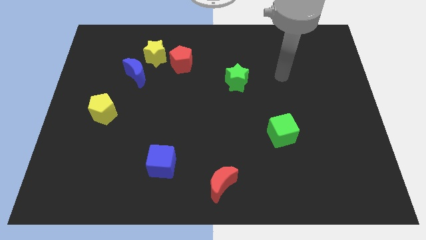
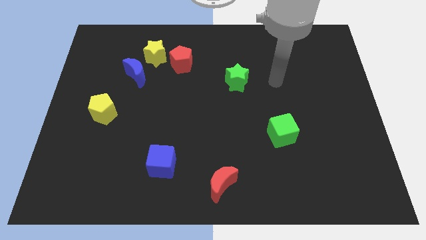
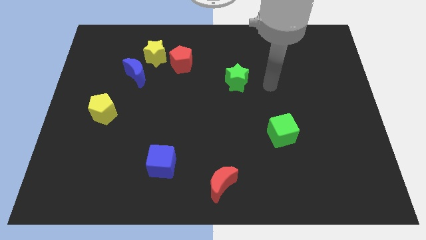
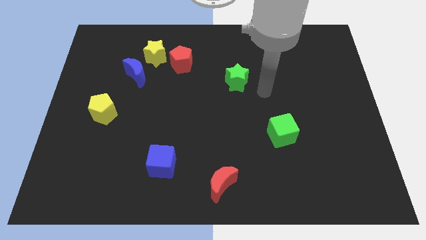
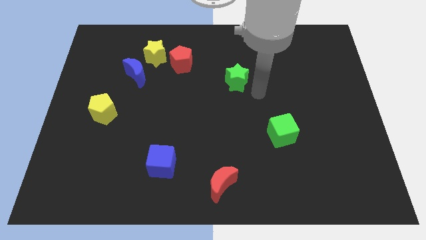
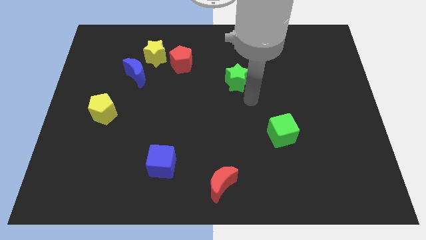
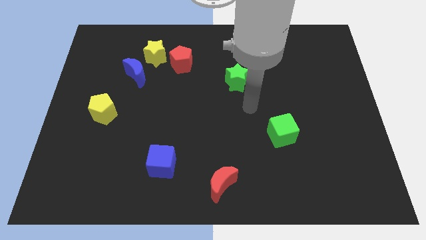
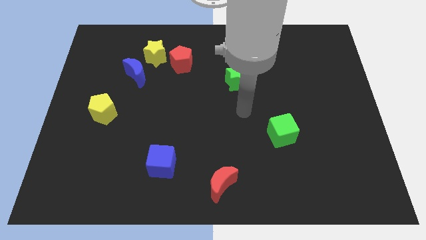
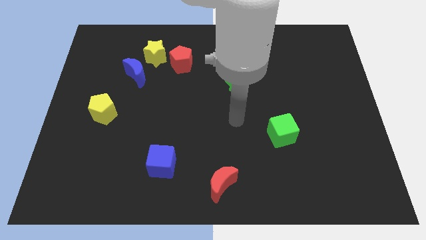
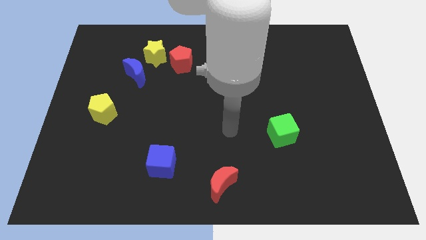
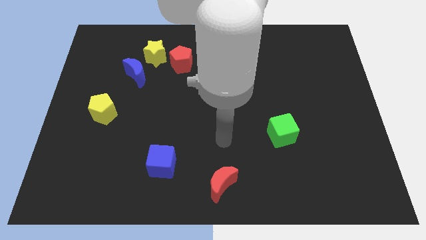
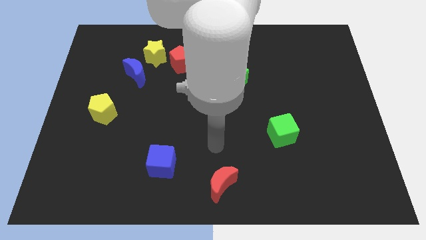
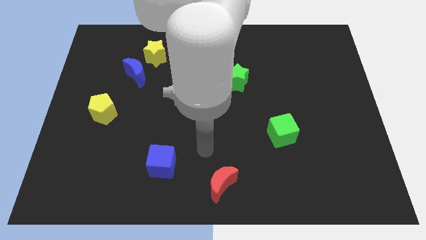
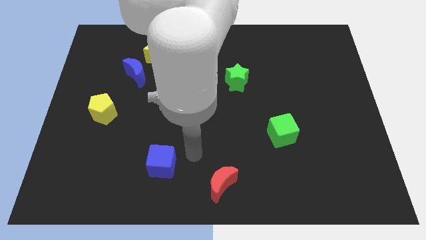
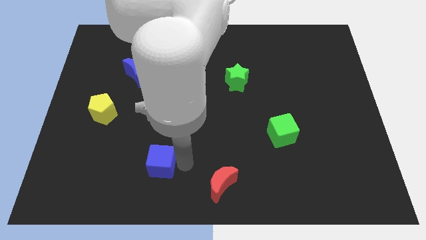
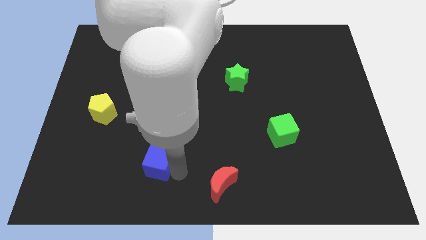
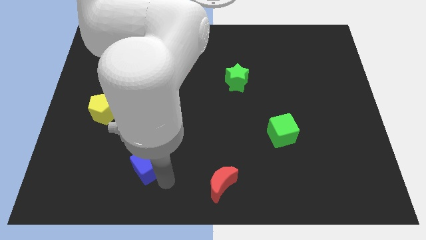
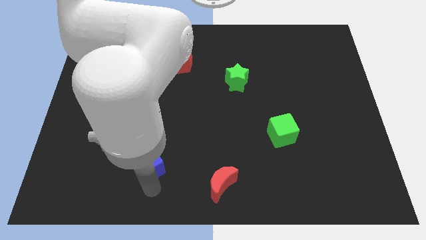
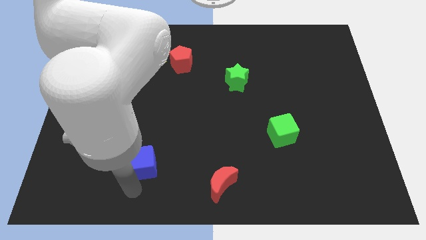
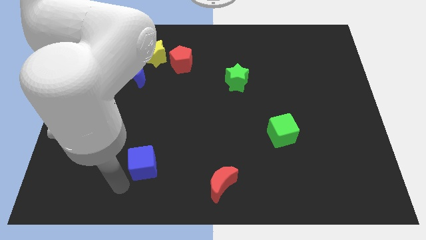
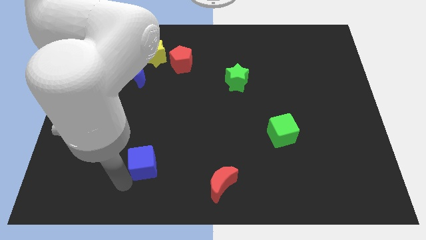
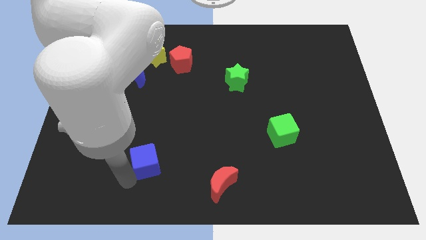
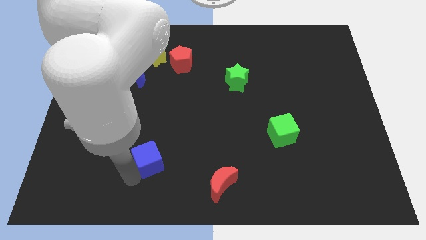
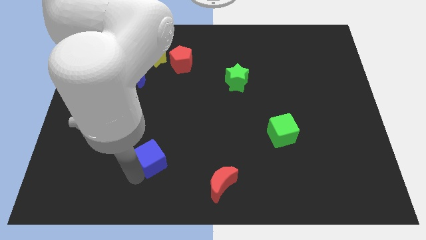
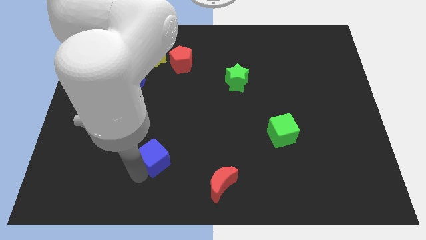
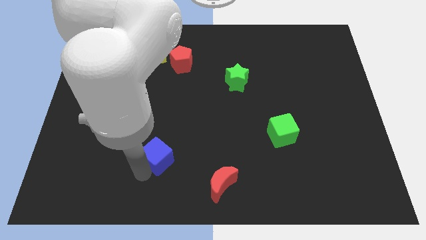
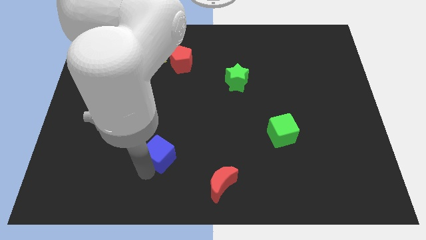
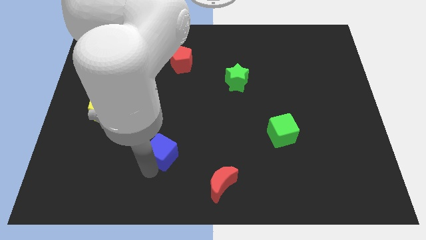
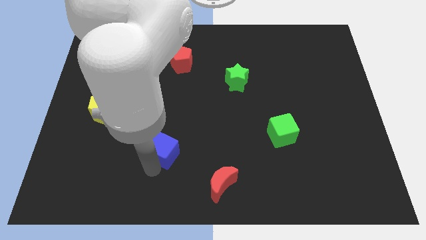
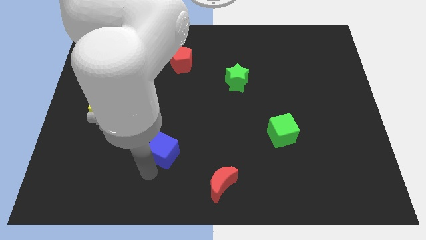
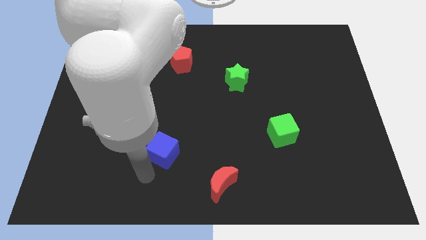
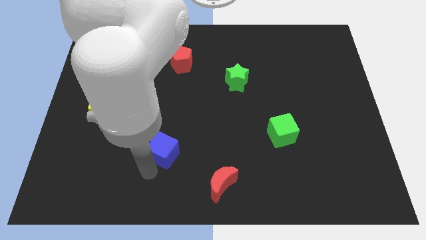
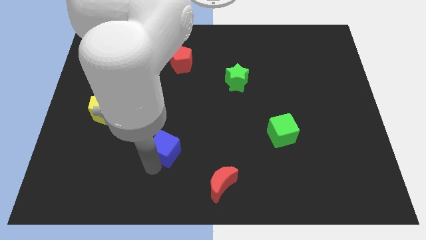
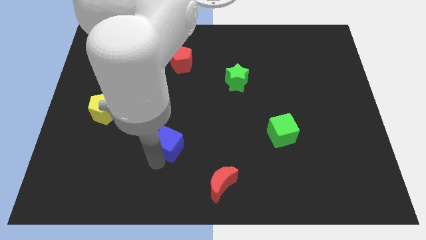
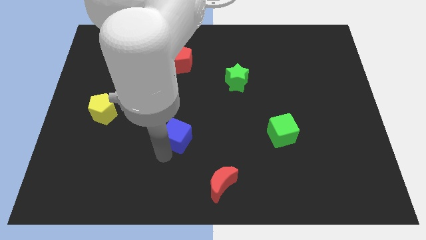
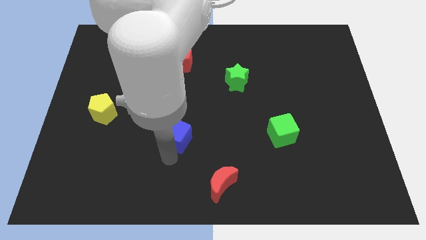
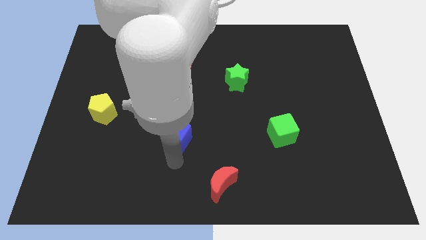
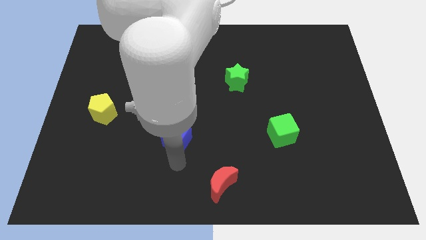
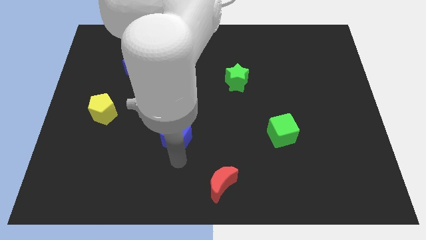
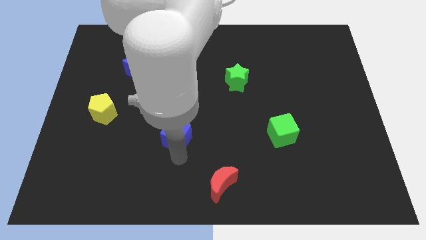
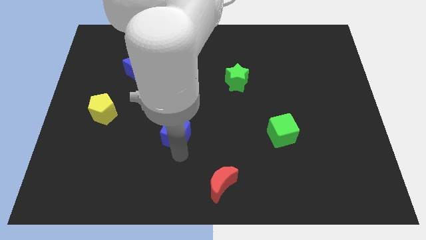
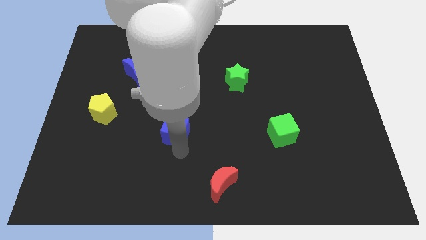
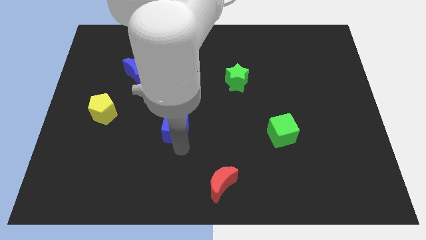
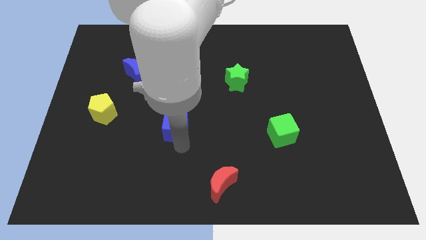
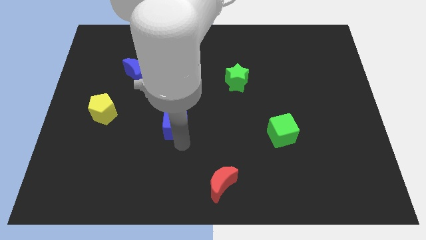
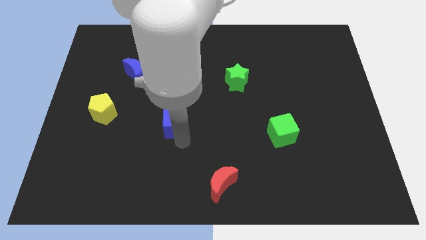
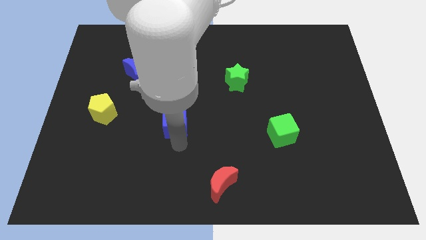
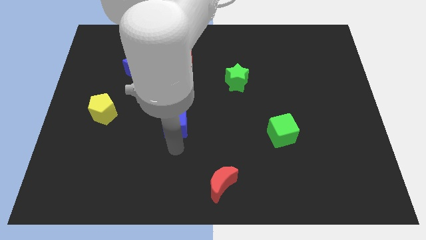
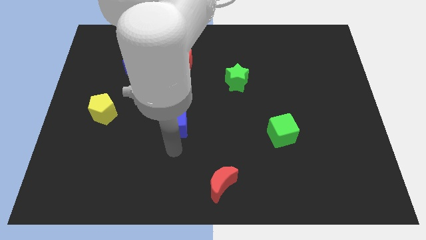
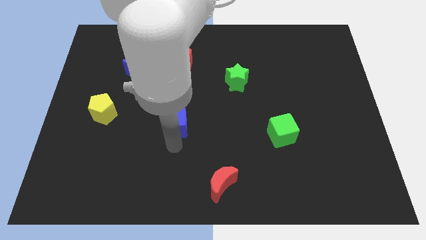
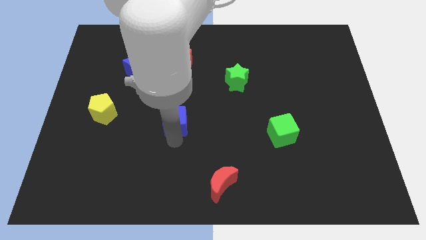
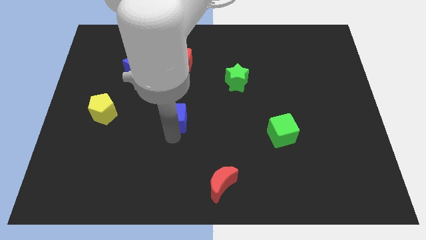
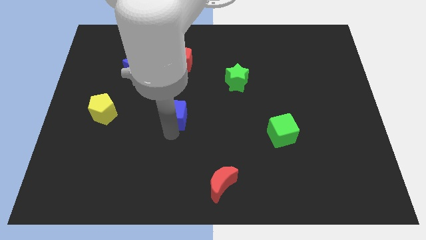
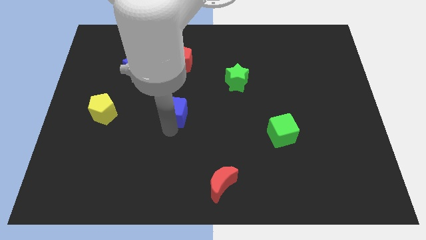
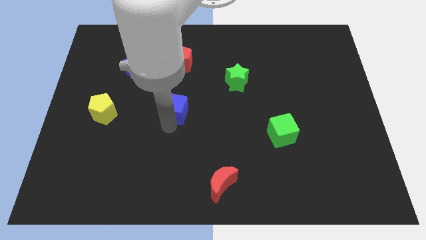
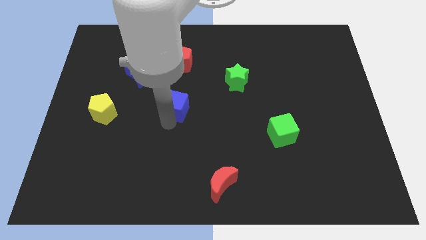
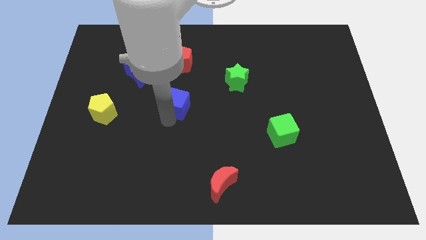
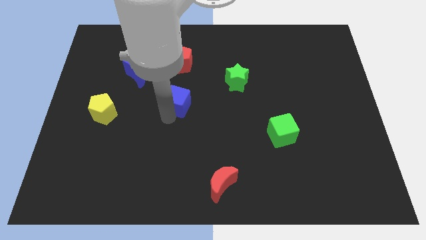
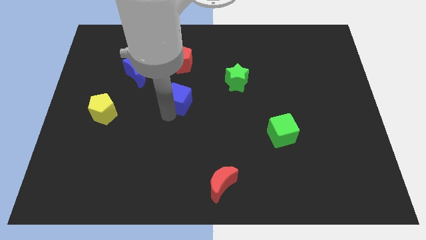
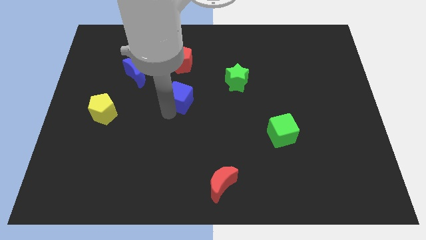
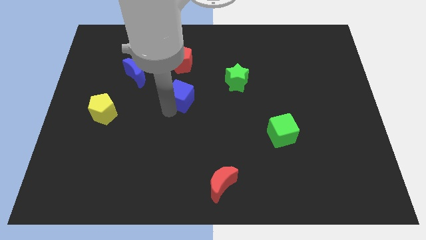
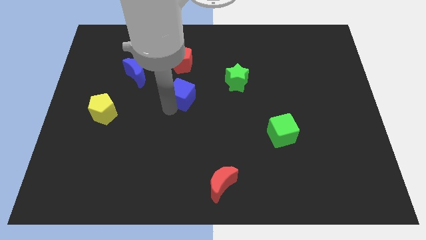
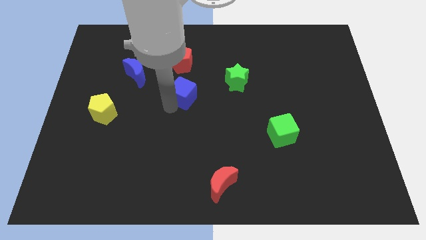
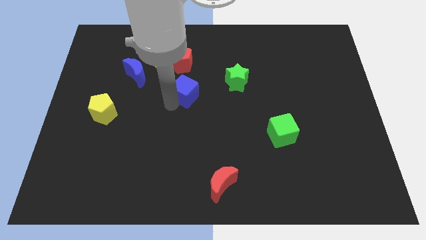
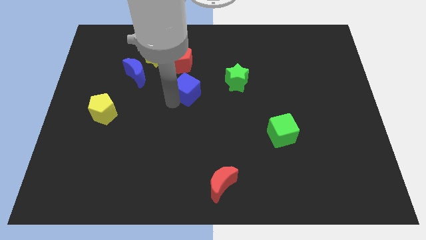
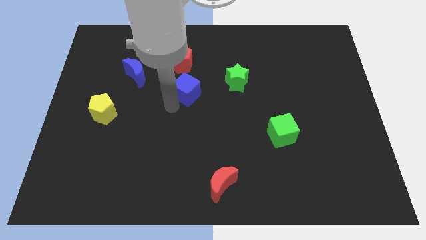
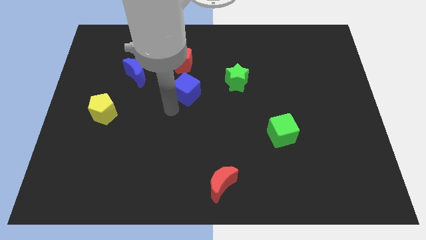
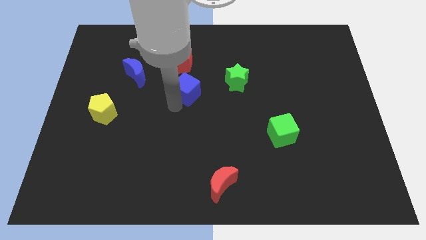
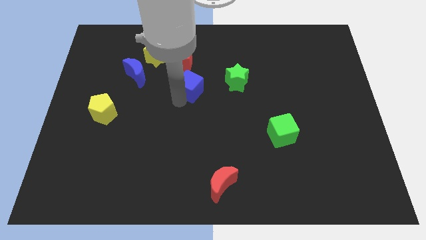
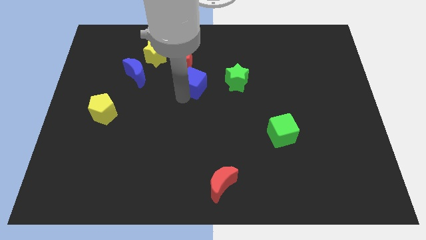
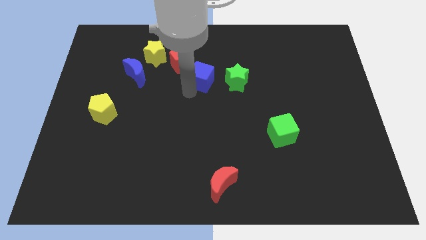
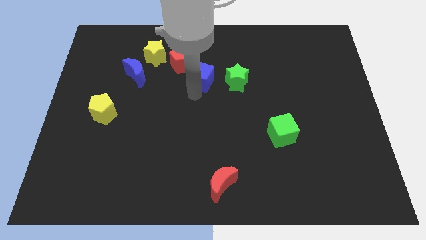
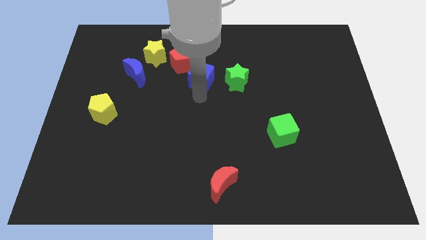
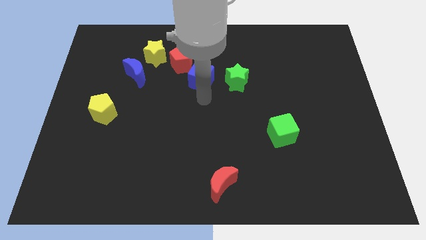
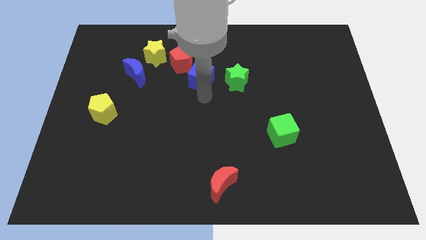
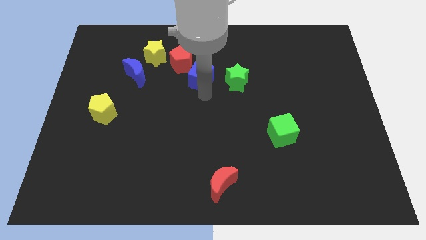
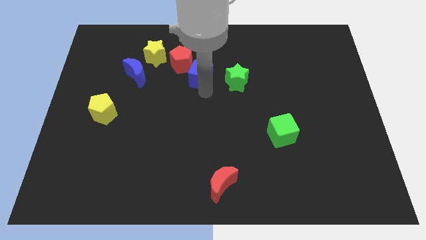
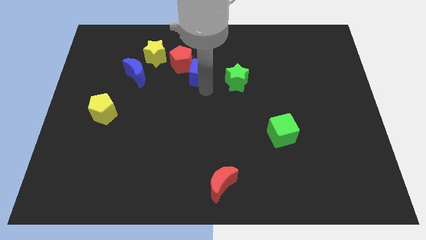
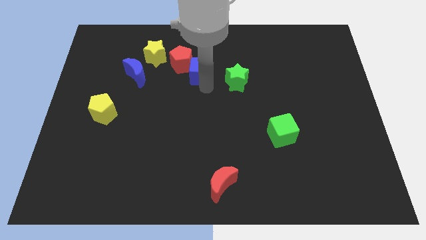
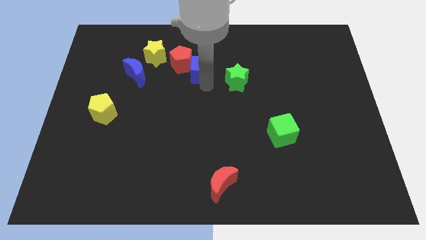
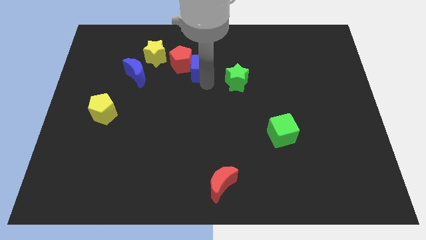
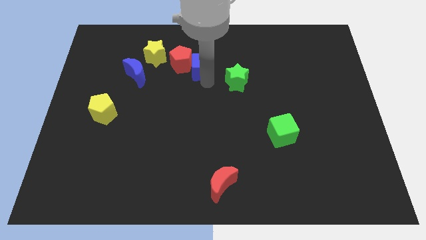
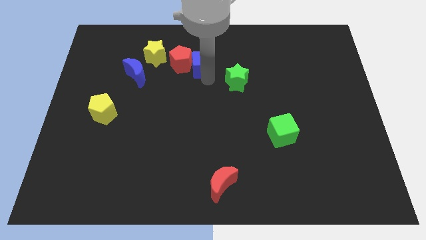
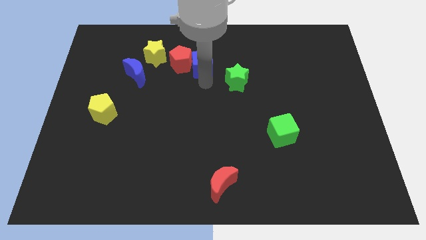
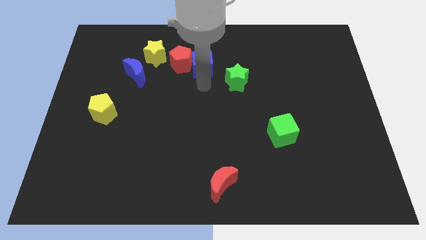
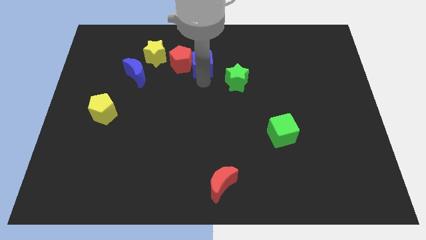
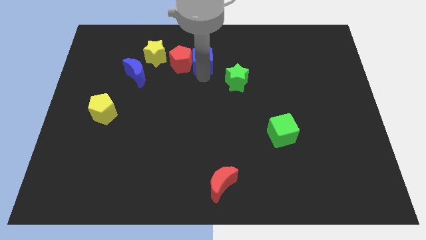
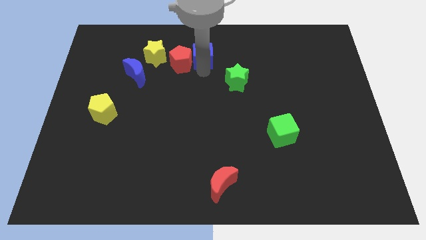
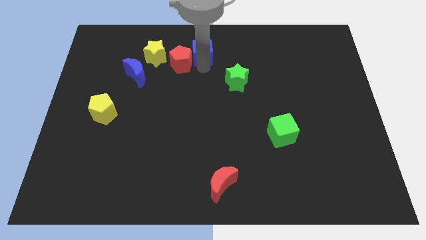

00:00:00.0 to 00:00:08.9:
move the blue cube to the top
